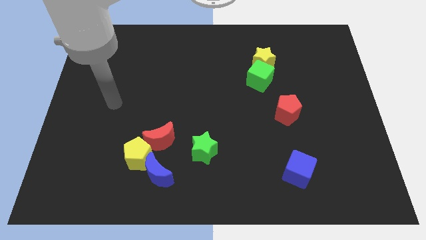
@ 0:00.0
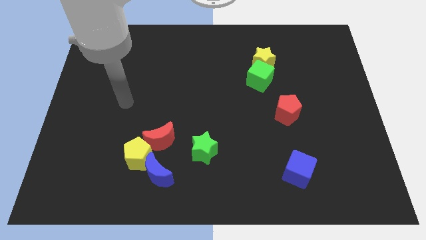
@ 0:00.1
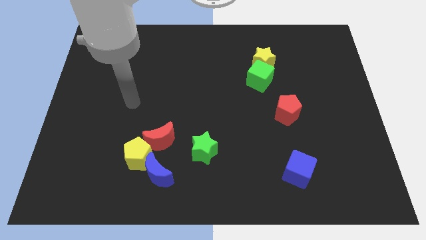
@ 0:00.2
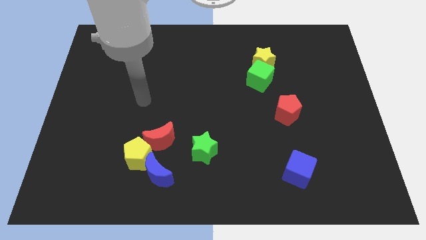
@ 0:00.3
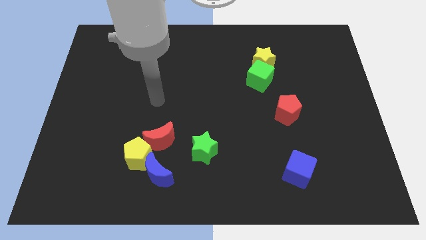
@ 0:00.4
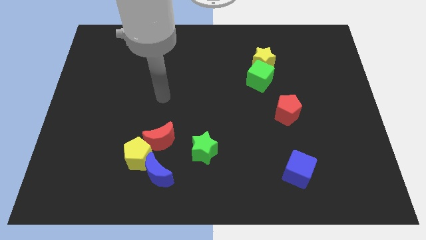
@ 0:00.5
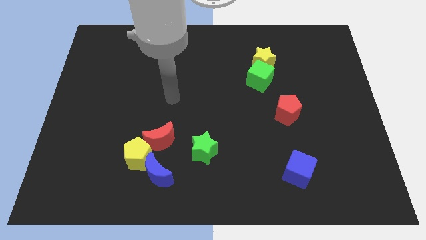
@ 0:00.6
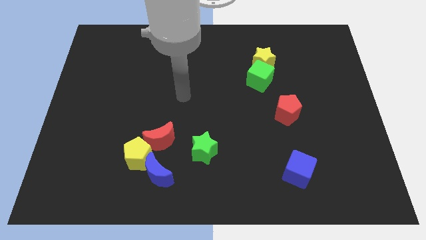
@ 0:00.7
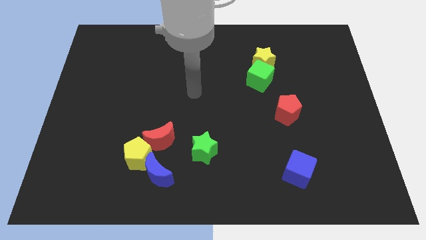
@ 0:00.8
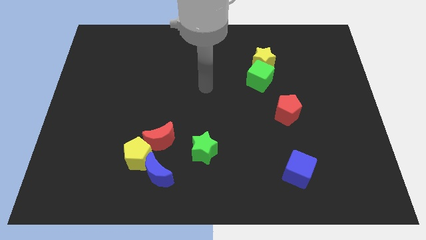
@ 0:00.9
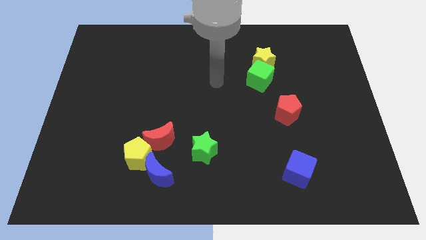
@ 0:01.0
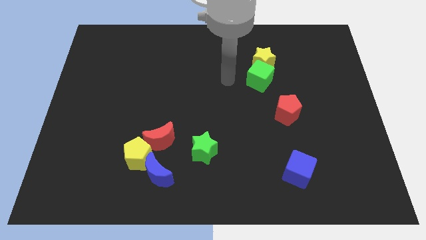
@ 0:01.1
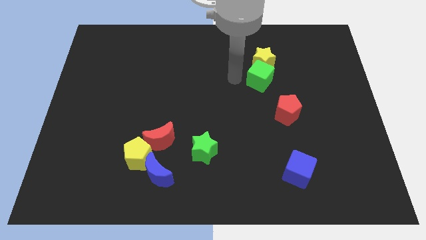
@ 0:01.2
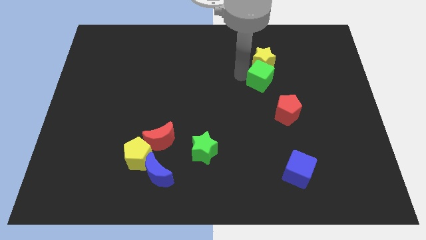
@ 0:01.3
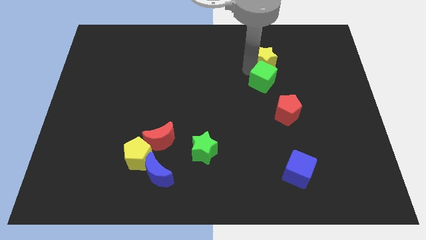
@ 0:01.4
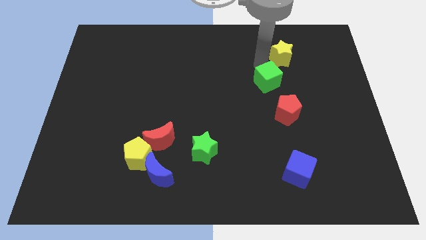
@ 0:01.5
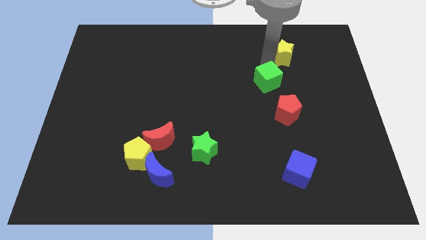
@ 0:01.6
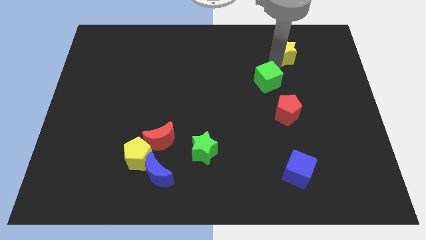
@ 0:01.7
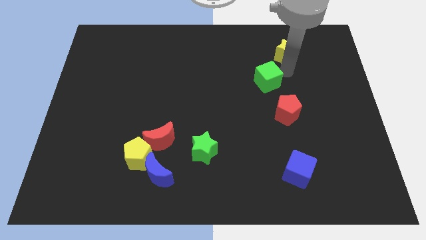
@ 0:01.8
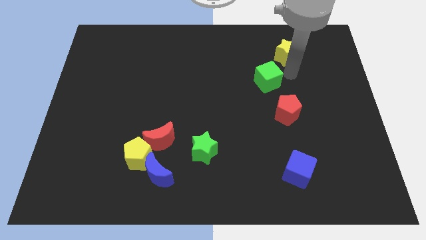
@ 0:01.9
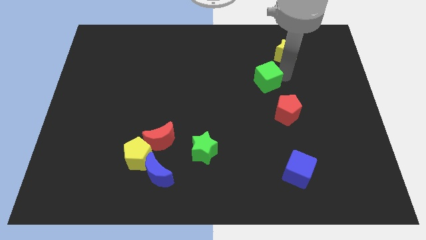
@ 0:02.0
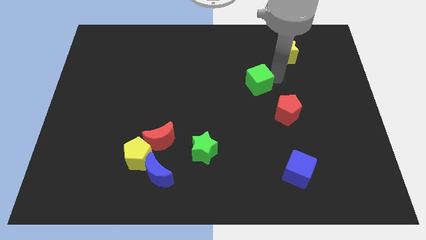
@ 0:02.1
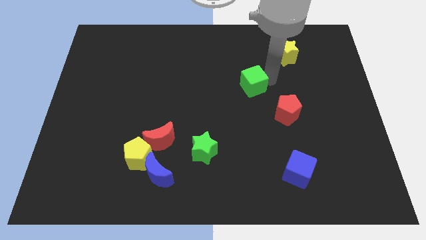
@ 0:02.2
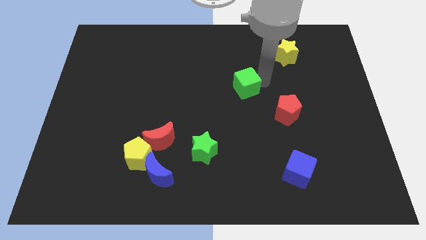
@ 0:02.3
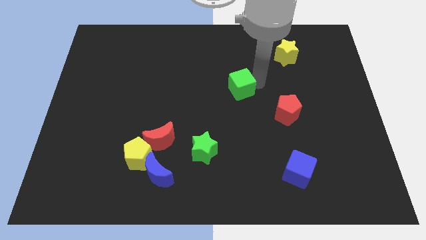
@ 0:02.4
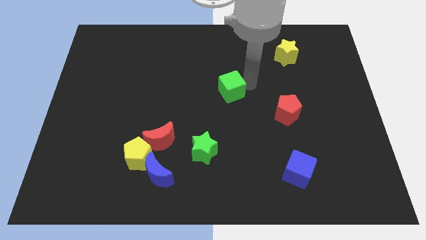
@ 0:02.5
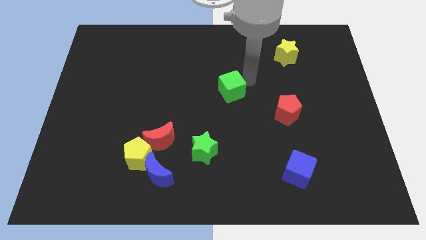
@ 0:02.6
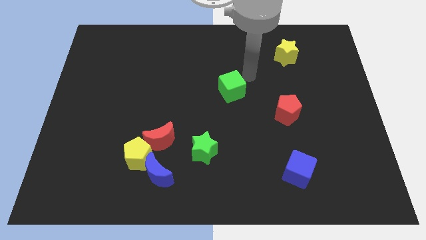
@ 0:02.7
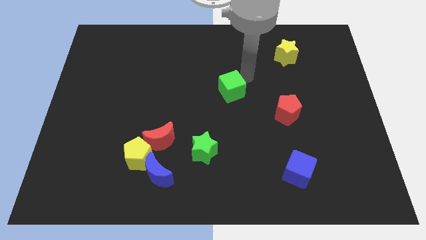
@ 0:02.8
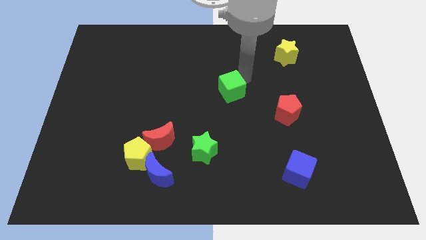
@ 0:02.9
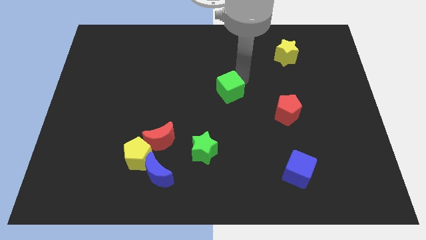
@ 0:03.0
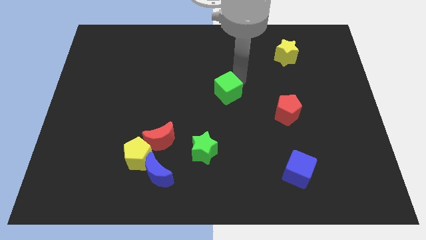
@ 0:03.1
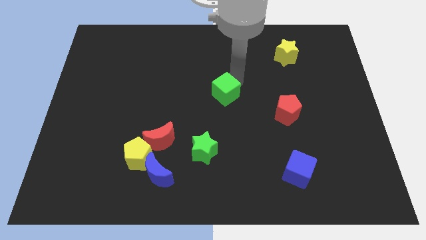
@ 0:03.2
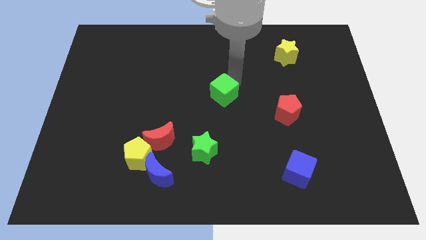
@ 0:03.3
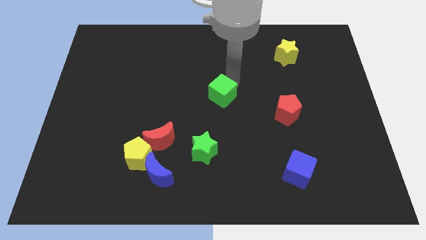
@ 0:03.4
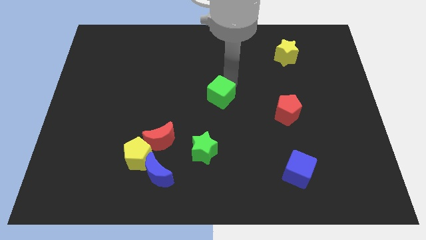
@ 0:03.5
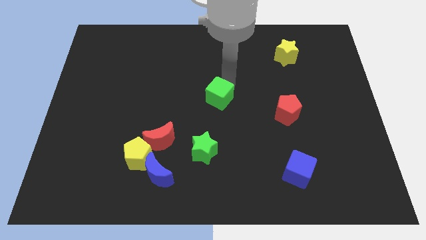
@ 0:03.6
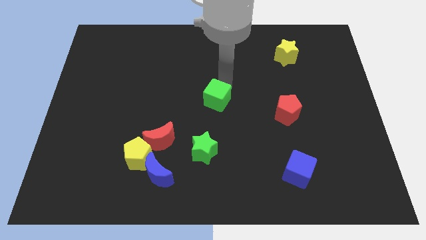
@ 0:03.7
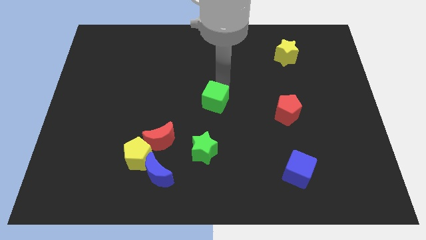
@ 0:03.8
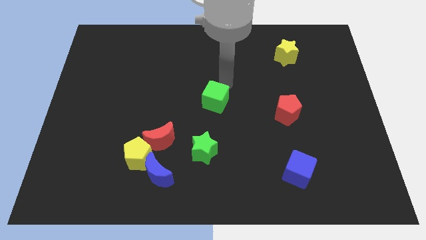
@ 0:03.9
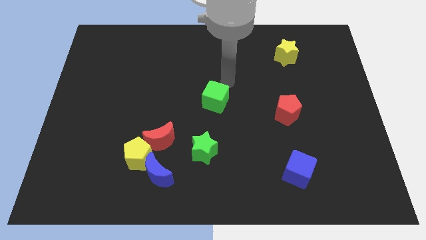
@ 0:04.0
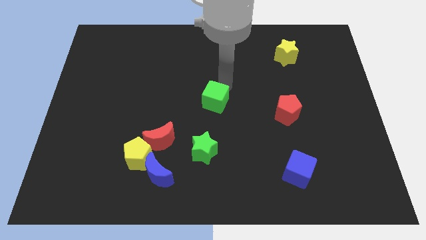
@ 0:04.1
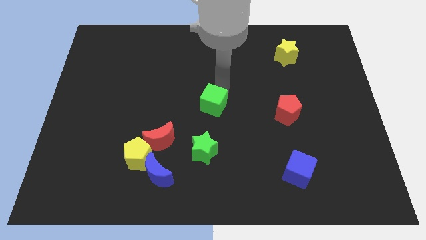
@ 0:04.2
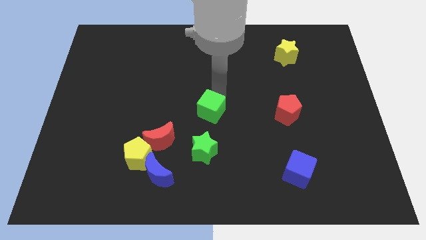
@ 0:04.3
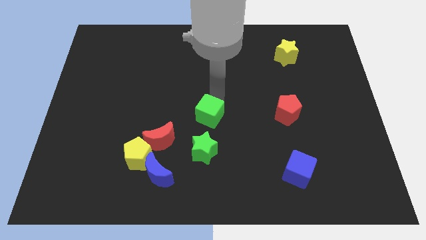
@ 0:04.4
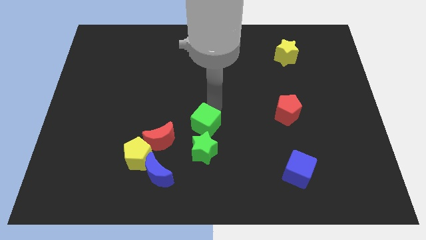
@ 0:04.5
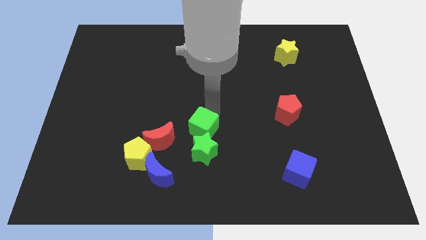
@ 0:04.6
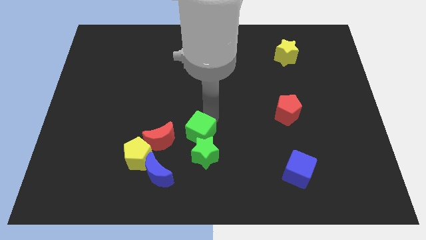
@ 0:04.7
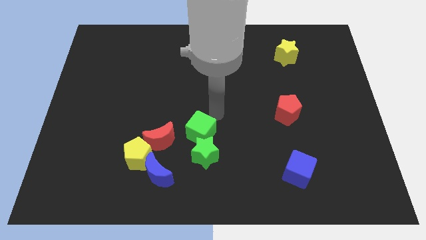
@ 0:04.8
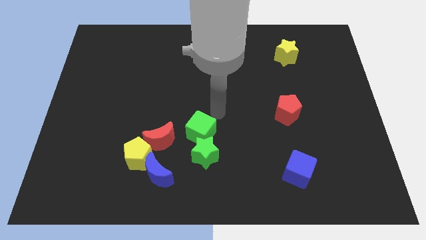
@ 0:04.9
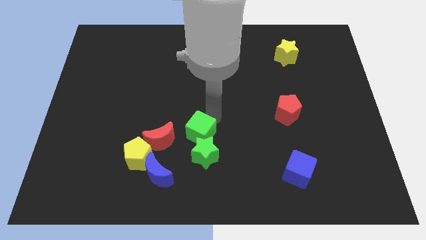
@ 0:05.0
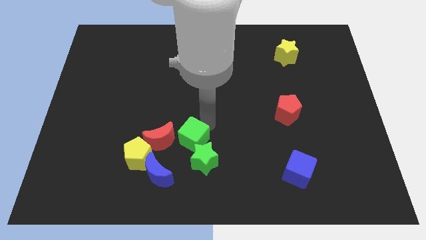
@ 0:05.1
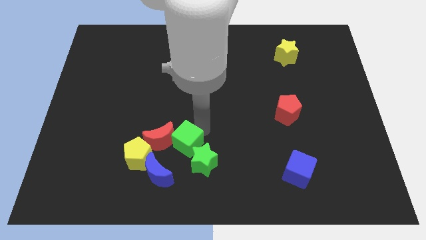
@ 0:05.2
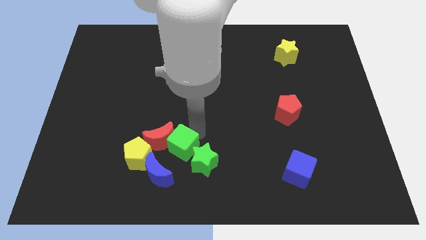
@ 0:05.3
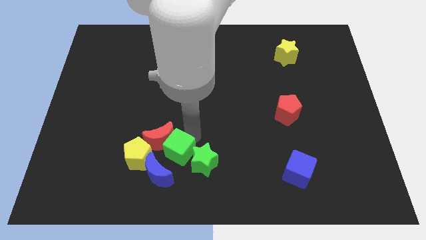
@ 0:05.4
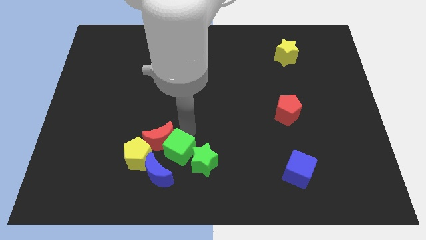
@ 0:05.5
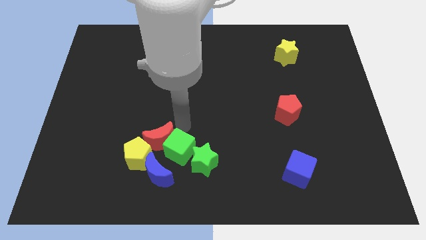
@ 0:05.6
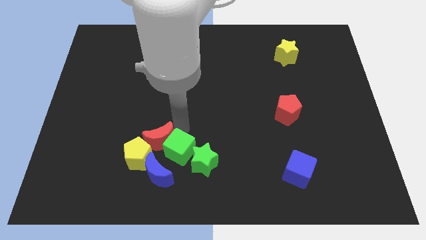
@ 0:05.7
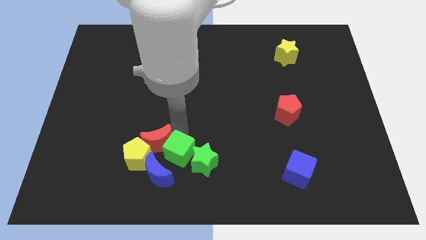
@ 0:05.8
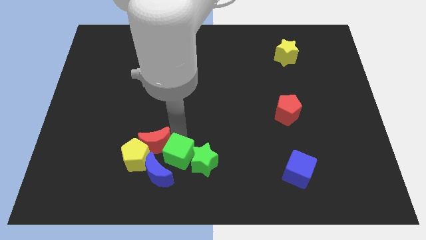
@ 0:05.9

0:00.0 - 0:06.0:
push the green cube to the bottom left of the green star

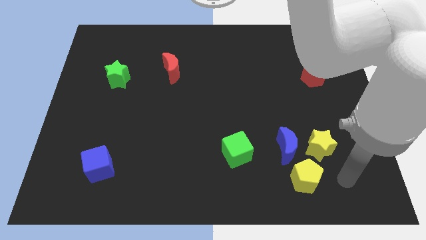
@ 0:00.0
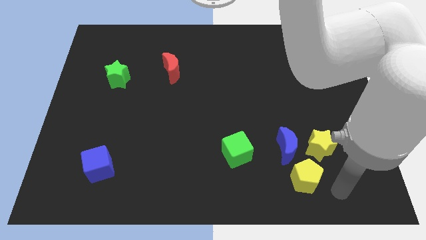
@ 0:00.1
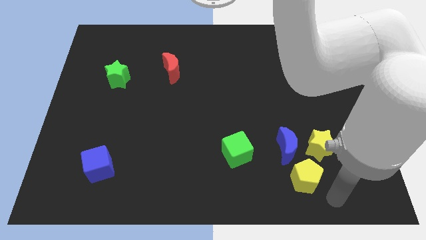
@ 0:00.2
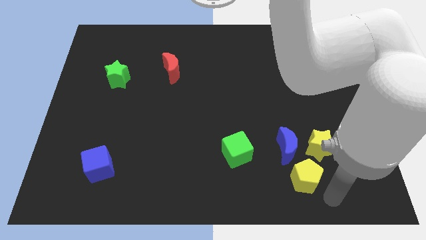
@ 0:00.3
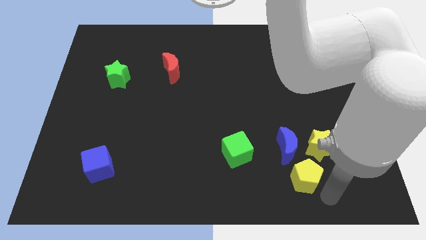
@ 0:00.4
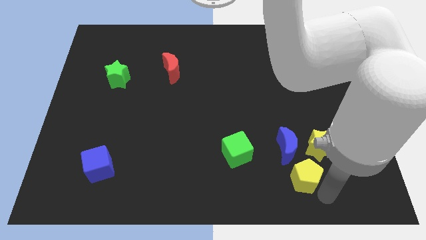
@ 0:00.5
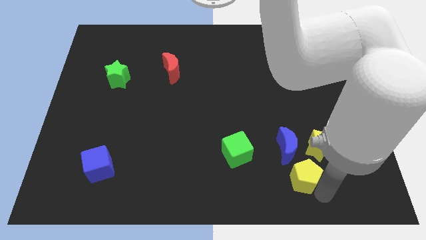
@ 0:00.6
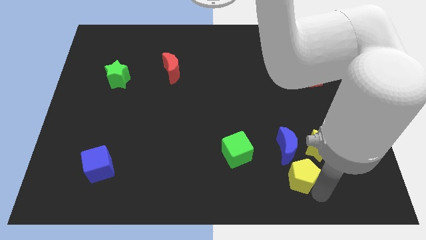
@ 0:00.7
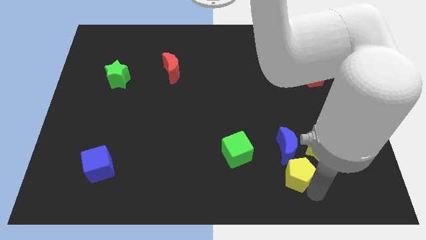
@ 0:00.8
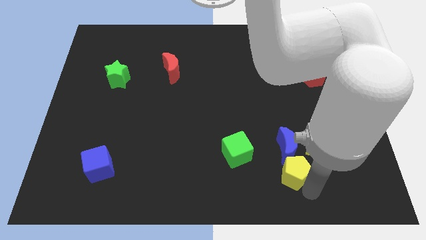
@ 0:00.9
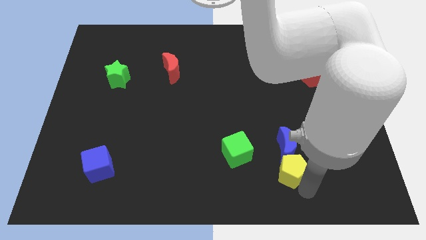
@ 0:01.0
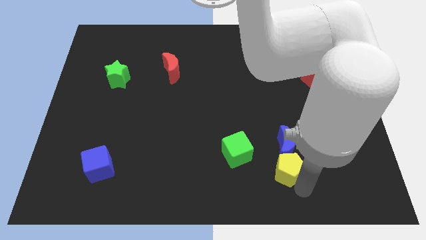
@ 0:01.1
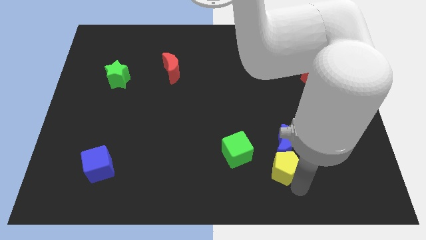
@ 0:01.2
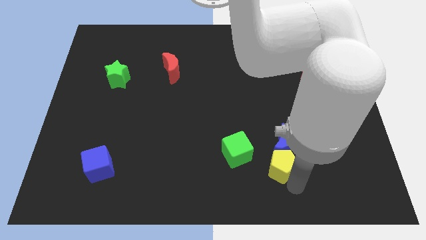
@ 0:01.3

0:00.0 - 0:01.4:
move the yellow pentagon to the left of the yellow star

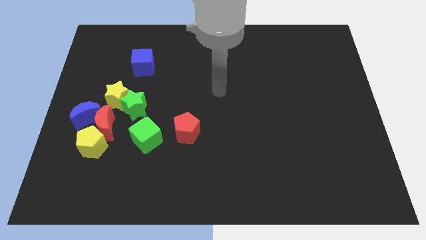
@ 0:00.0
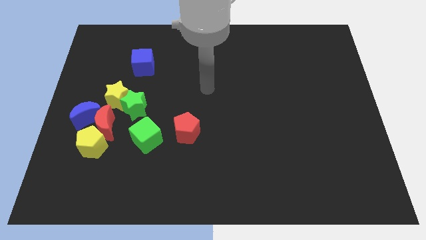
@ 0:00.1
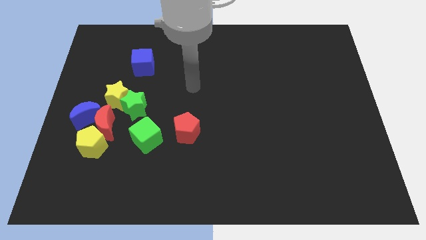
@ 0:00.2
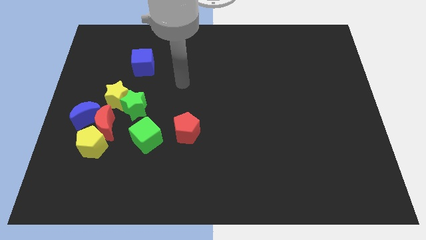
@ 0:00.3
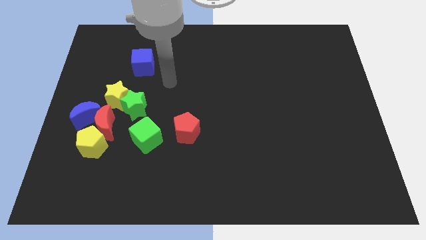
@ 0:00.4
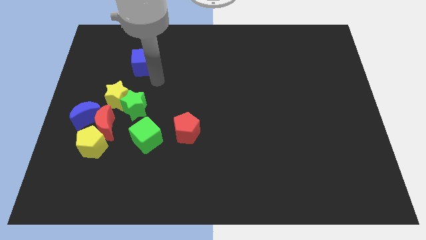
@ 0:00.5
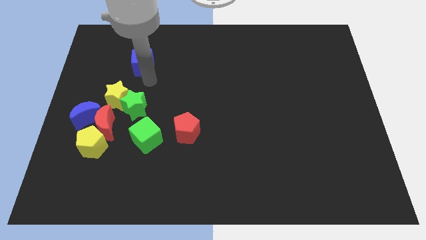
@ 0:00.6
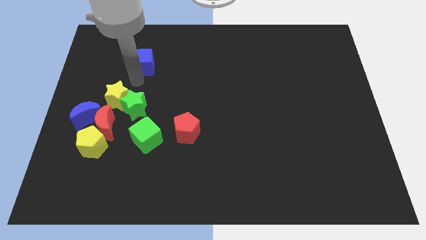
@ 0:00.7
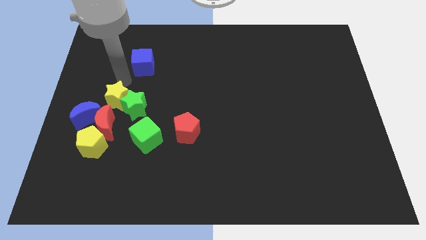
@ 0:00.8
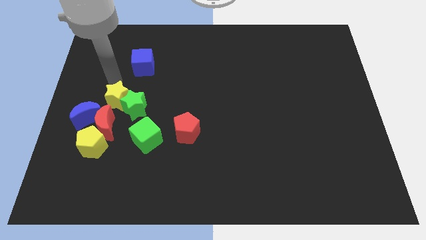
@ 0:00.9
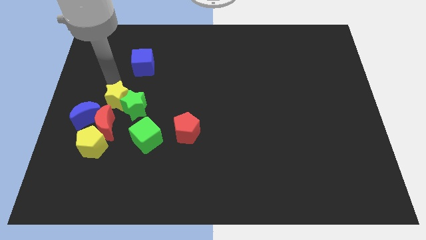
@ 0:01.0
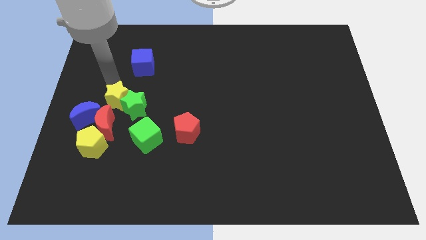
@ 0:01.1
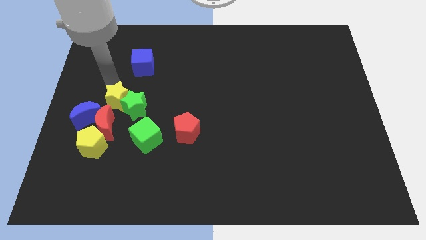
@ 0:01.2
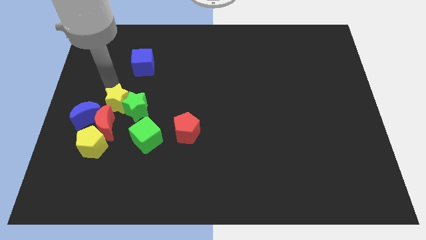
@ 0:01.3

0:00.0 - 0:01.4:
push the yellow star to the top left of the green cube
